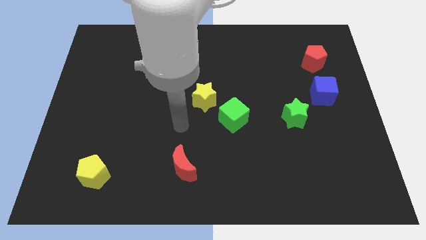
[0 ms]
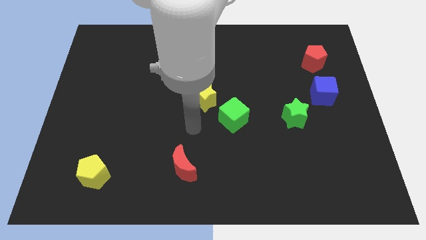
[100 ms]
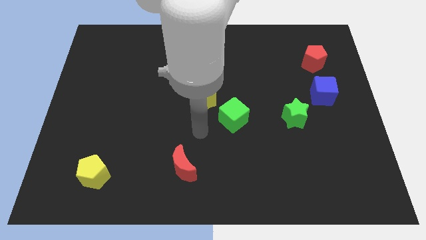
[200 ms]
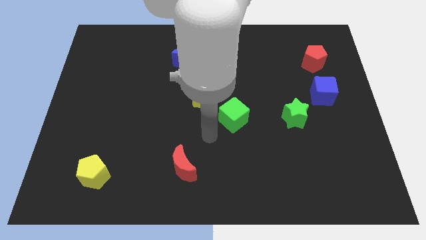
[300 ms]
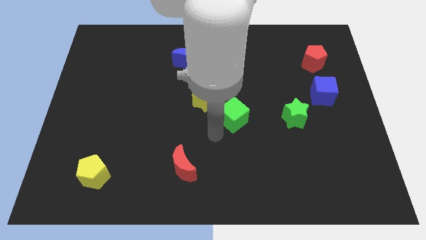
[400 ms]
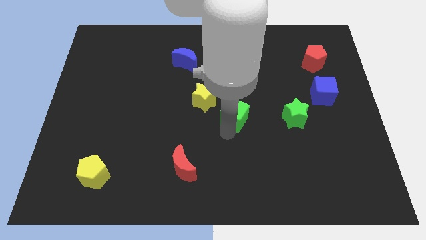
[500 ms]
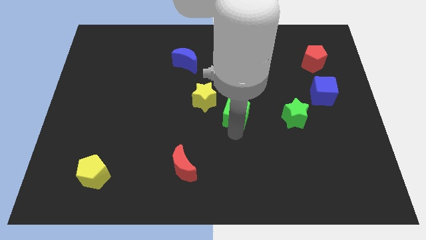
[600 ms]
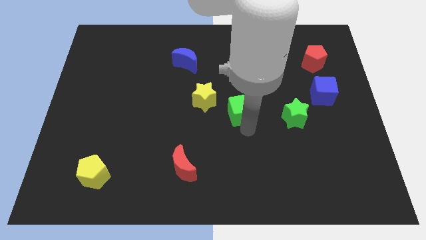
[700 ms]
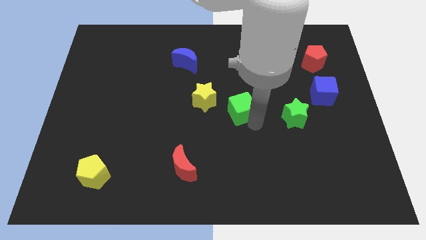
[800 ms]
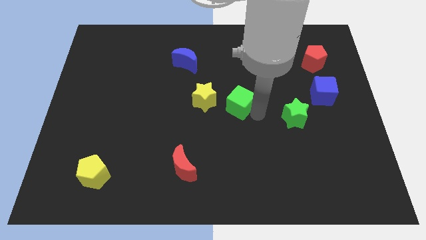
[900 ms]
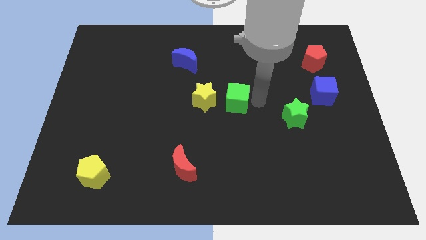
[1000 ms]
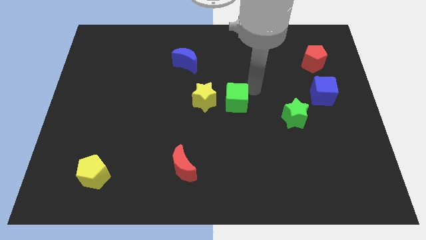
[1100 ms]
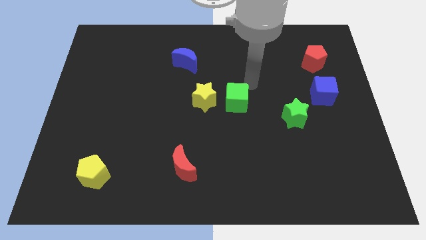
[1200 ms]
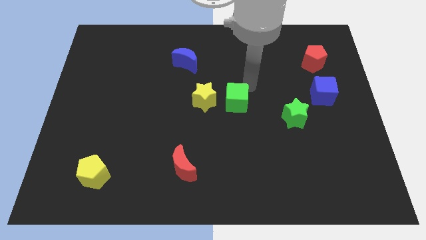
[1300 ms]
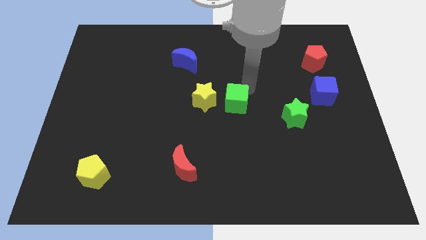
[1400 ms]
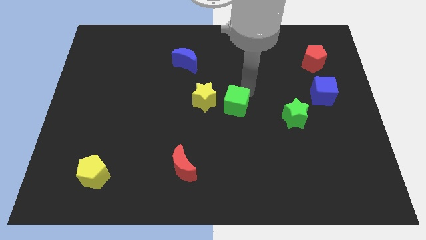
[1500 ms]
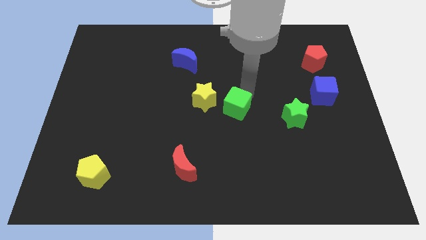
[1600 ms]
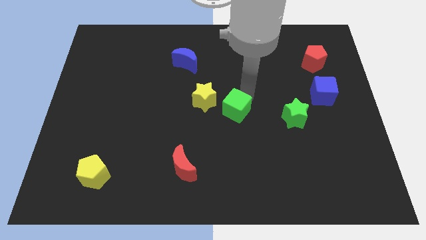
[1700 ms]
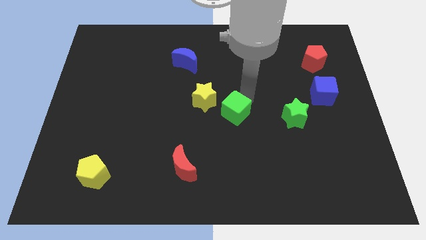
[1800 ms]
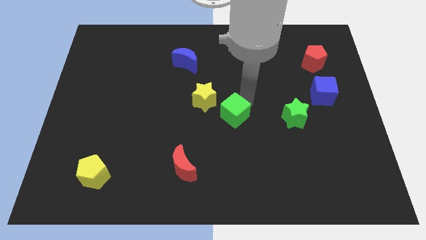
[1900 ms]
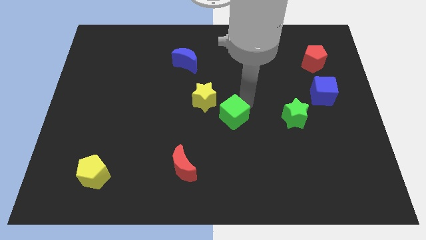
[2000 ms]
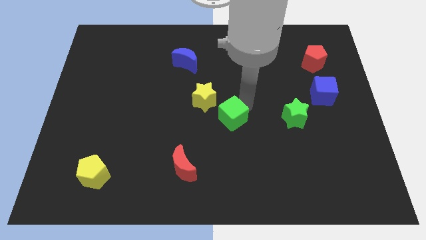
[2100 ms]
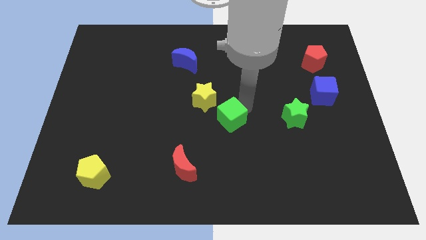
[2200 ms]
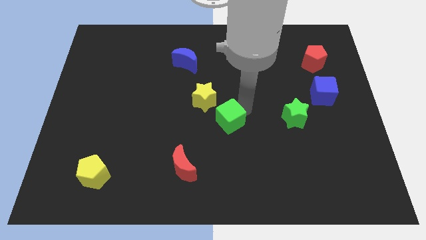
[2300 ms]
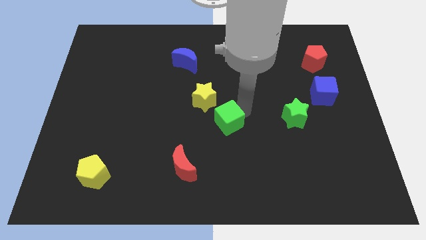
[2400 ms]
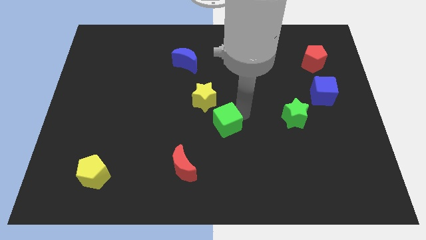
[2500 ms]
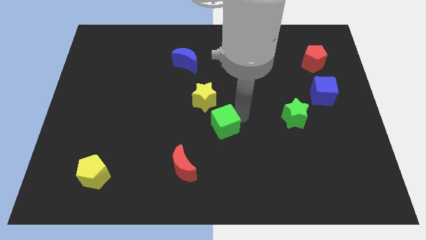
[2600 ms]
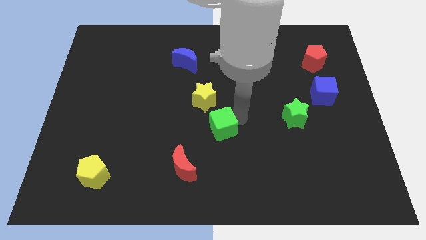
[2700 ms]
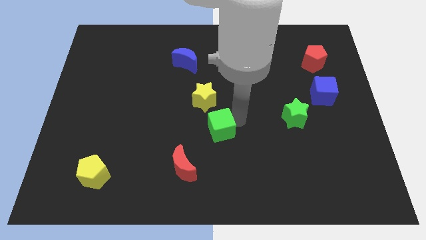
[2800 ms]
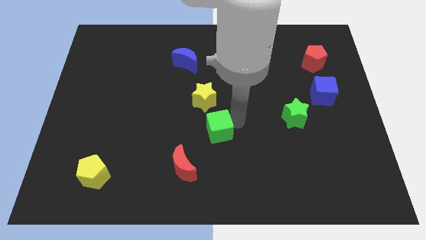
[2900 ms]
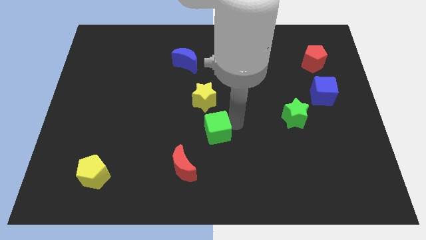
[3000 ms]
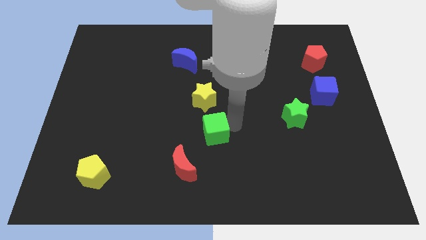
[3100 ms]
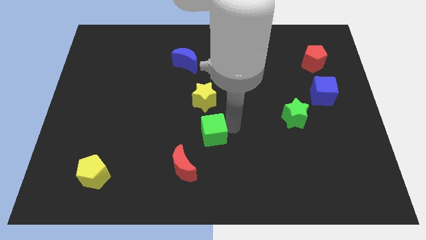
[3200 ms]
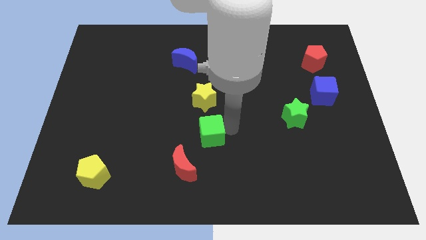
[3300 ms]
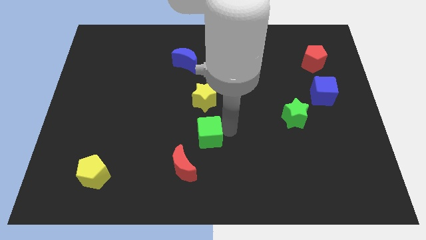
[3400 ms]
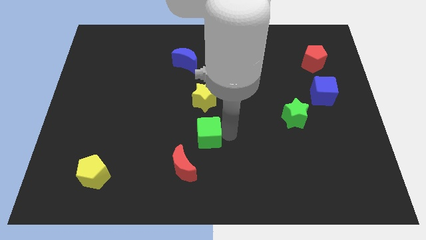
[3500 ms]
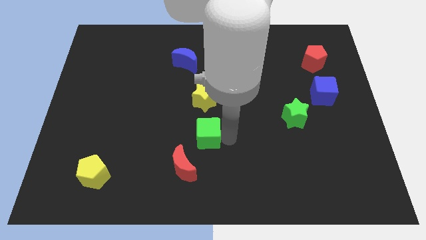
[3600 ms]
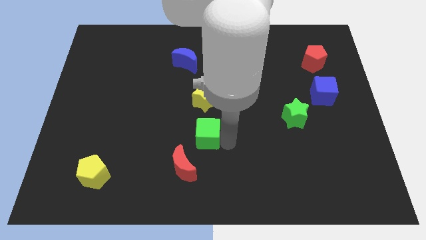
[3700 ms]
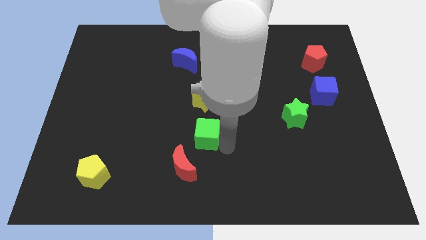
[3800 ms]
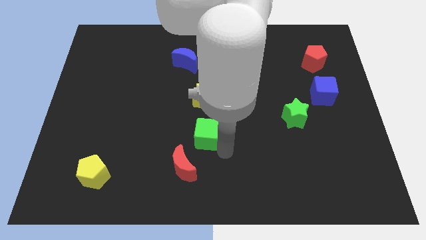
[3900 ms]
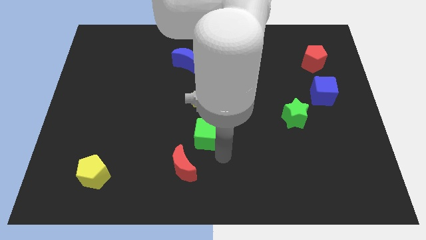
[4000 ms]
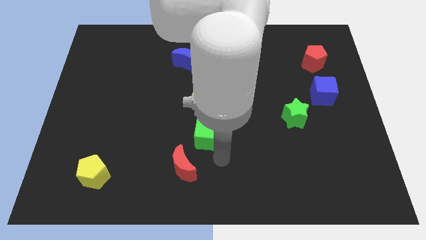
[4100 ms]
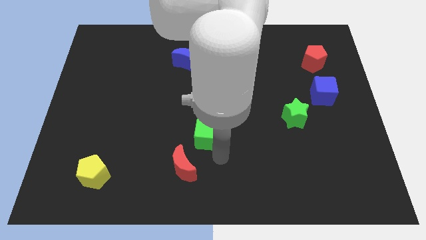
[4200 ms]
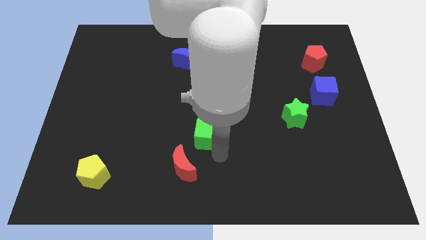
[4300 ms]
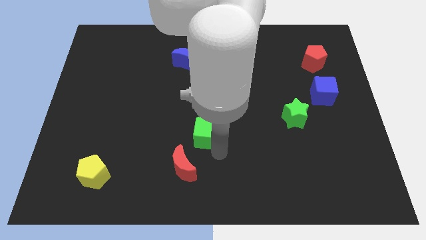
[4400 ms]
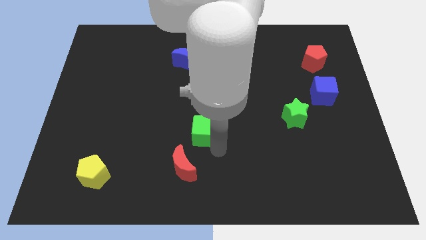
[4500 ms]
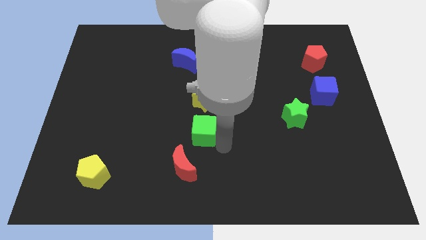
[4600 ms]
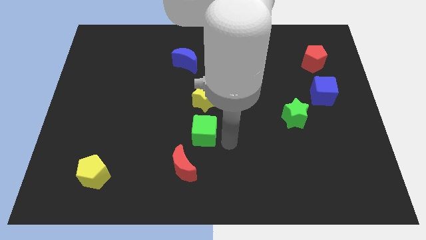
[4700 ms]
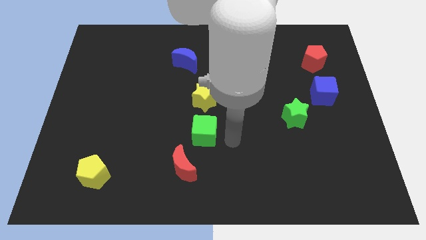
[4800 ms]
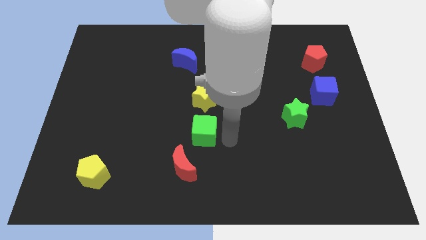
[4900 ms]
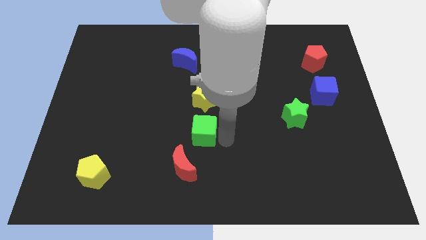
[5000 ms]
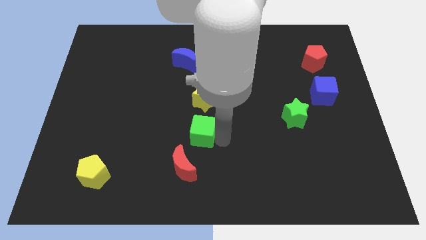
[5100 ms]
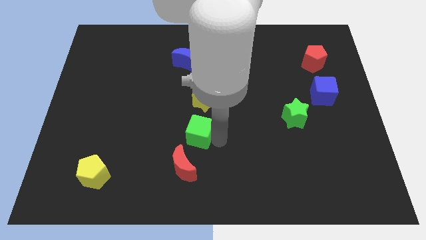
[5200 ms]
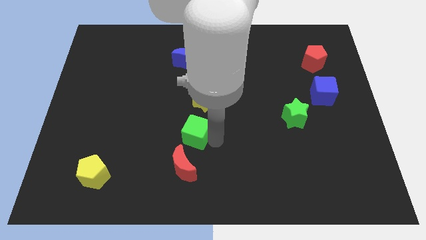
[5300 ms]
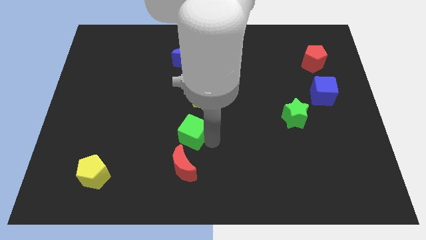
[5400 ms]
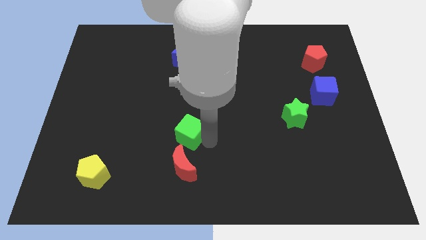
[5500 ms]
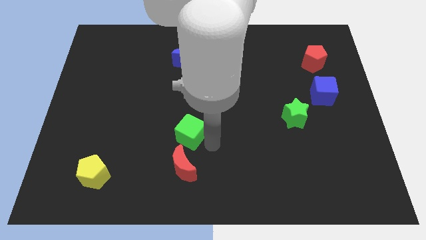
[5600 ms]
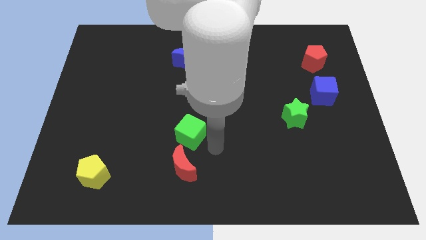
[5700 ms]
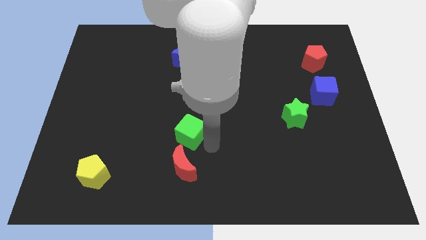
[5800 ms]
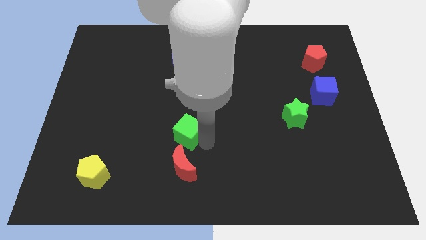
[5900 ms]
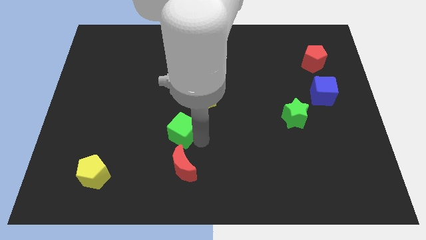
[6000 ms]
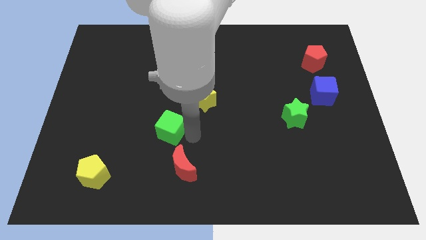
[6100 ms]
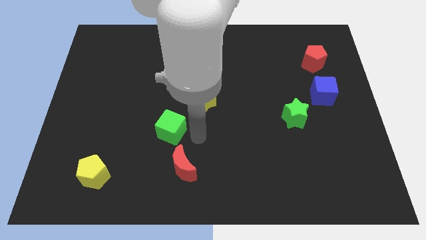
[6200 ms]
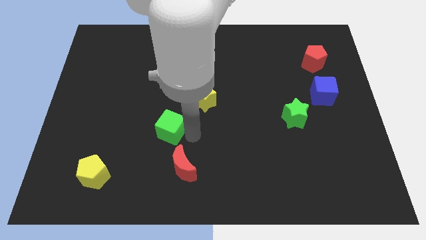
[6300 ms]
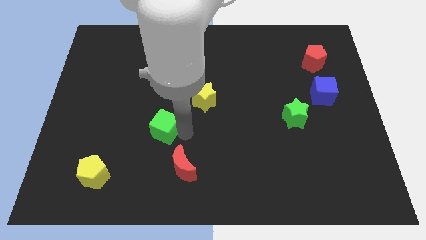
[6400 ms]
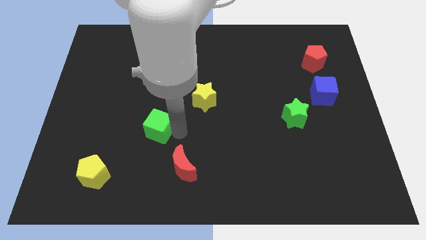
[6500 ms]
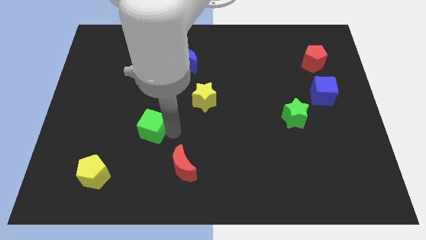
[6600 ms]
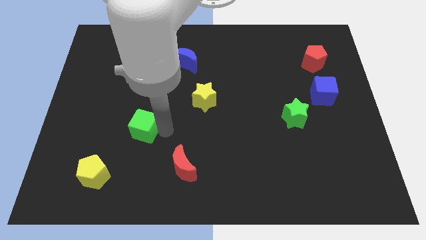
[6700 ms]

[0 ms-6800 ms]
slide the green cube to the left

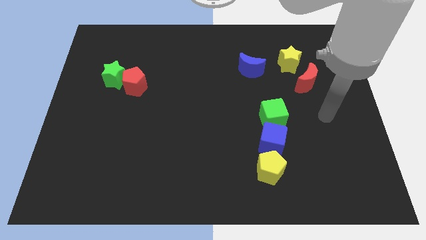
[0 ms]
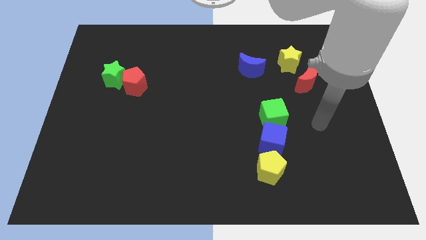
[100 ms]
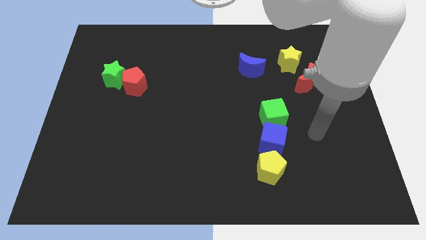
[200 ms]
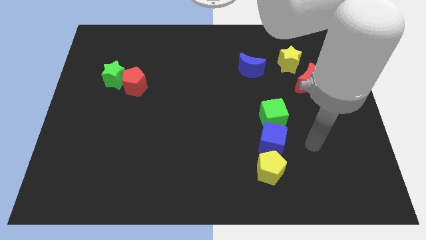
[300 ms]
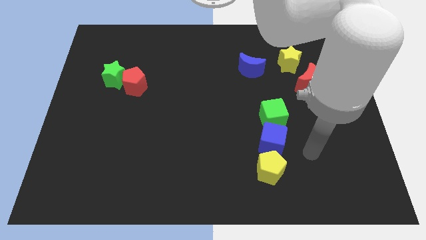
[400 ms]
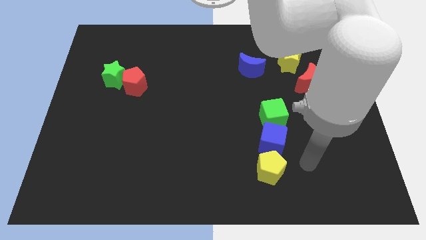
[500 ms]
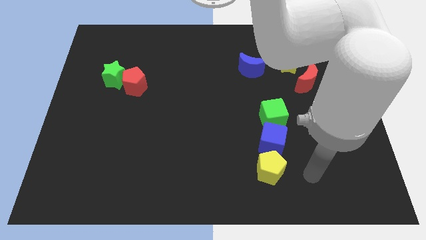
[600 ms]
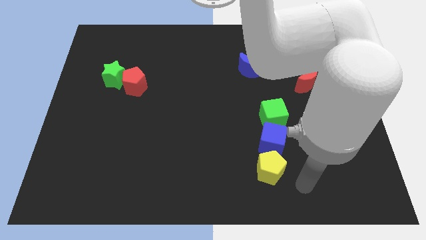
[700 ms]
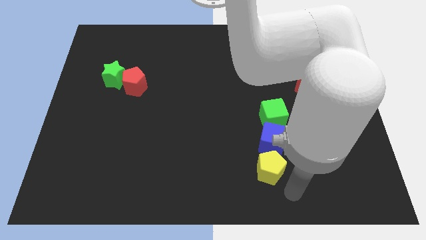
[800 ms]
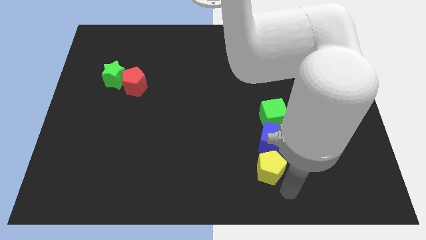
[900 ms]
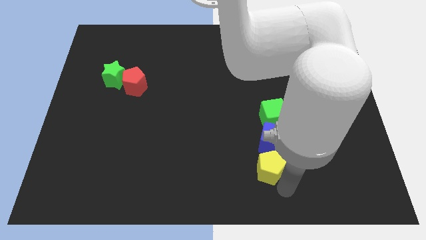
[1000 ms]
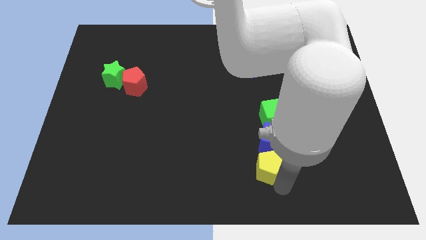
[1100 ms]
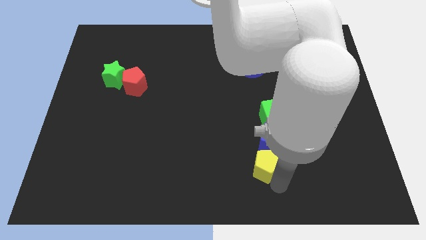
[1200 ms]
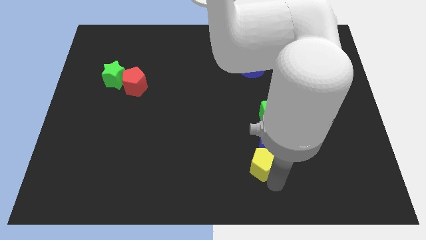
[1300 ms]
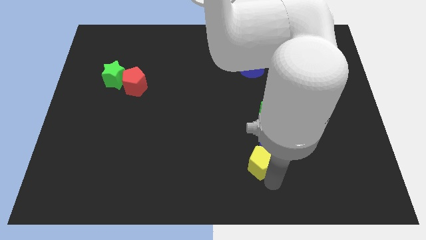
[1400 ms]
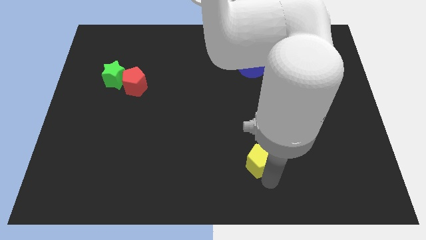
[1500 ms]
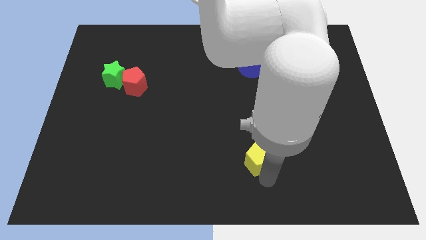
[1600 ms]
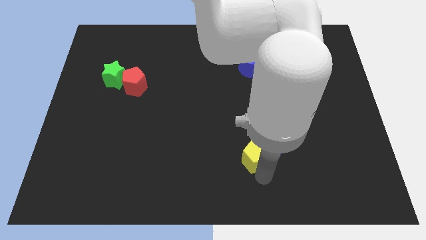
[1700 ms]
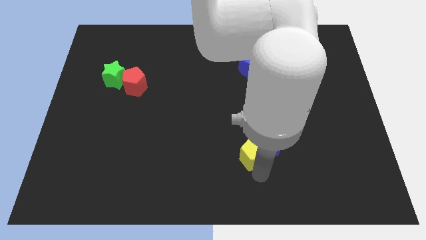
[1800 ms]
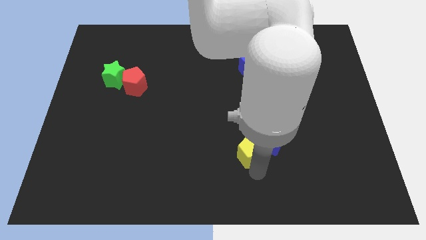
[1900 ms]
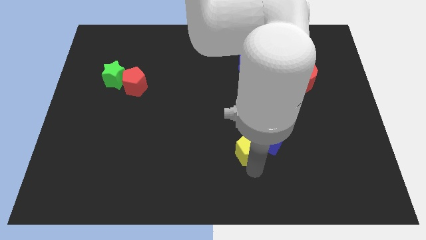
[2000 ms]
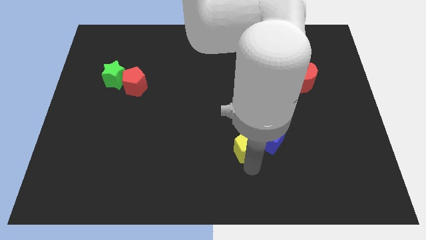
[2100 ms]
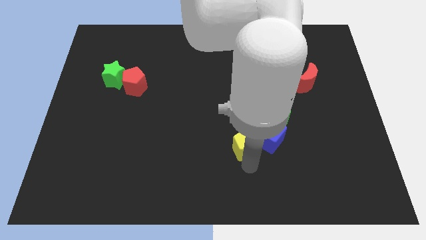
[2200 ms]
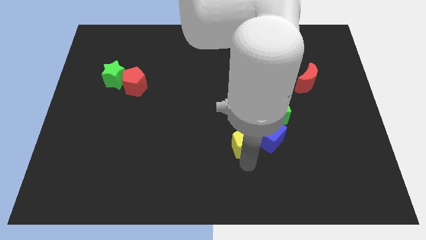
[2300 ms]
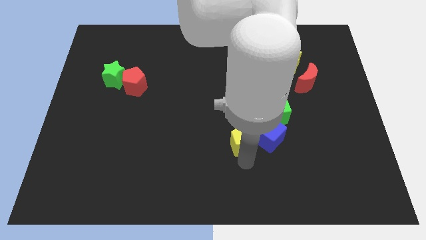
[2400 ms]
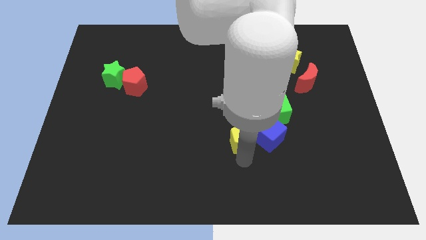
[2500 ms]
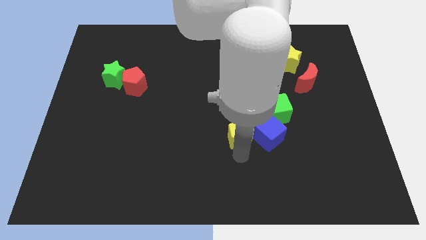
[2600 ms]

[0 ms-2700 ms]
move the yellow pentagon slightly upwards
